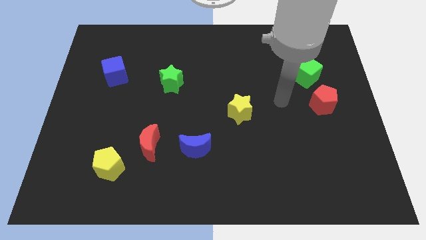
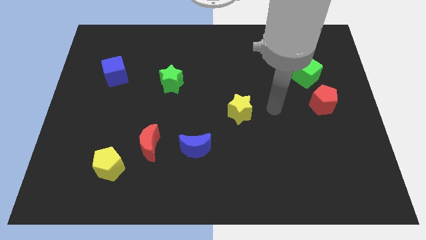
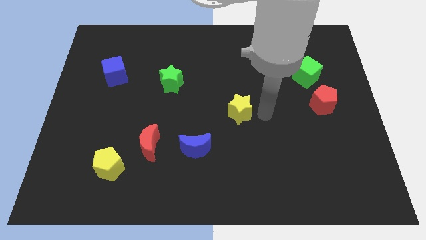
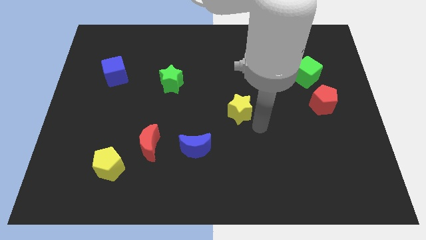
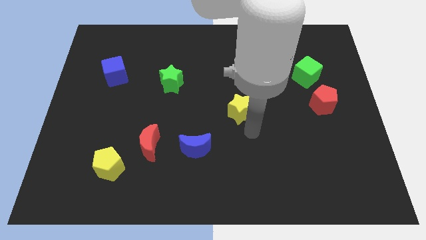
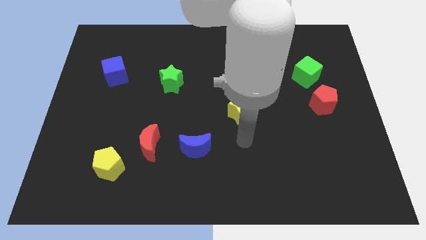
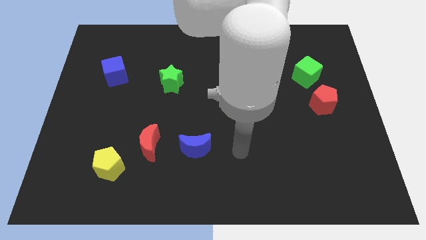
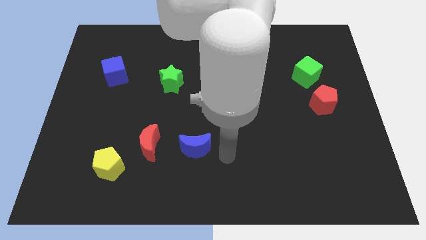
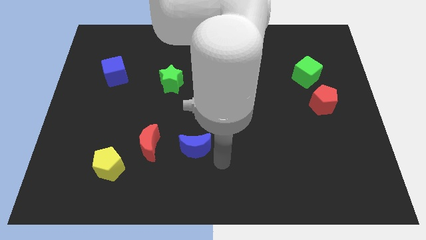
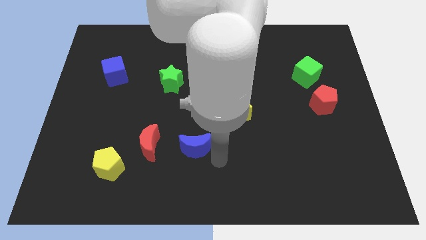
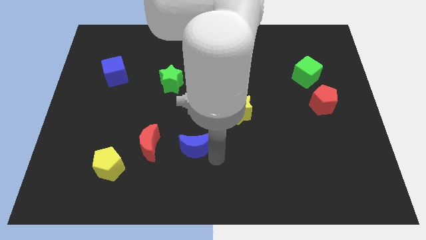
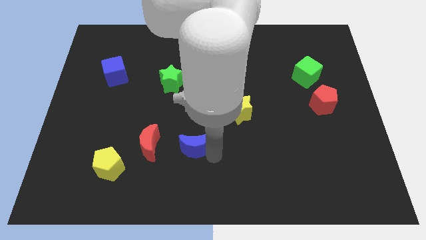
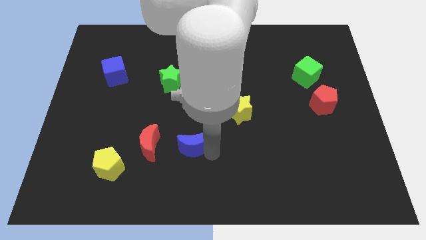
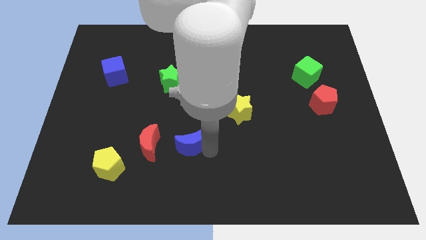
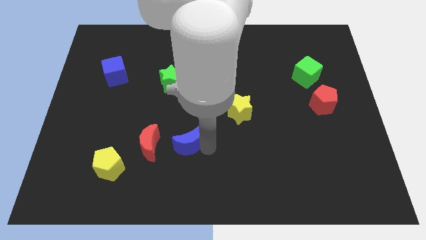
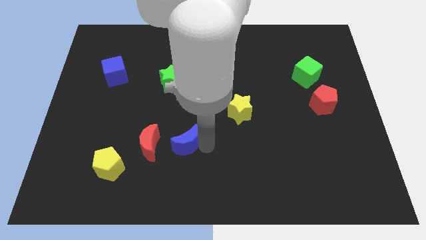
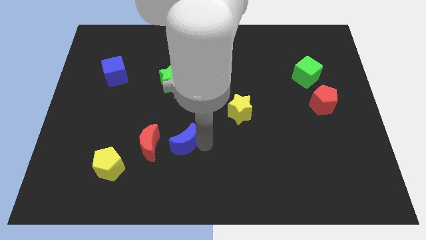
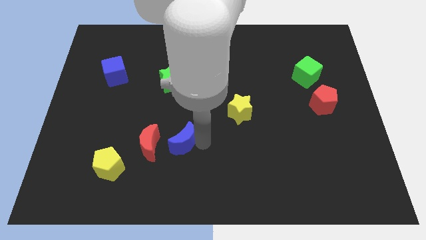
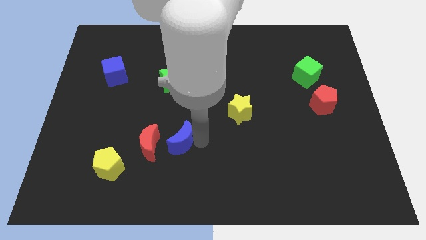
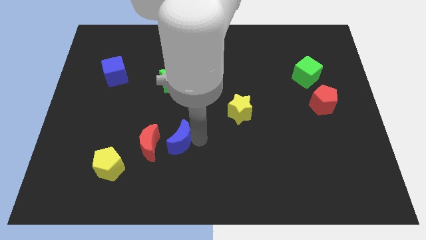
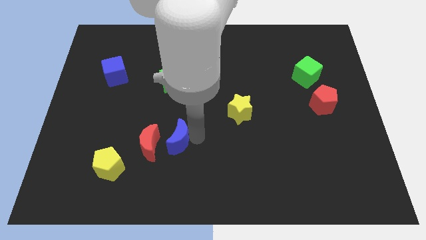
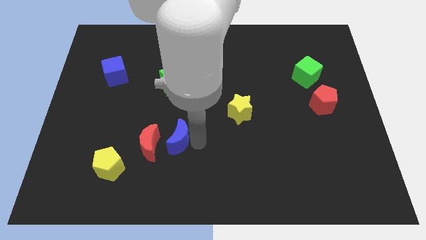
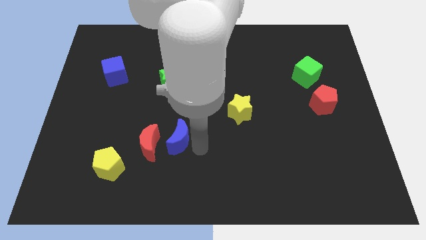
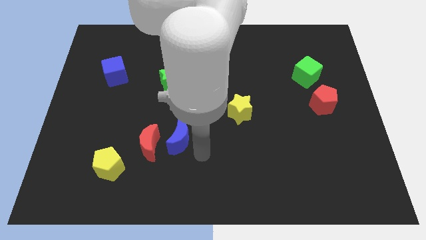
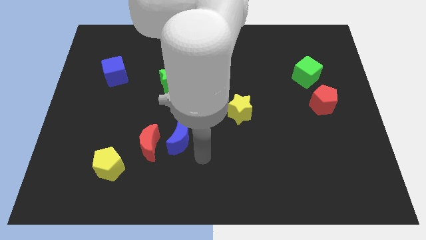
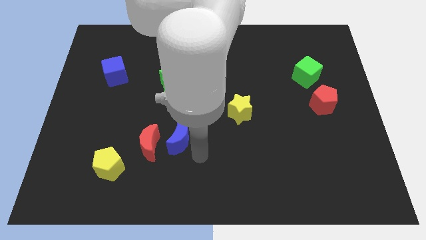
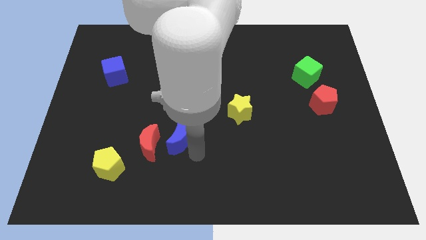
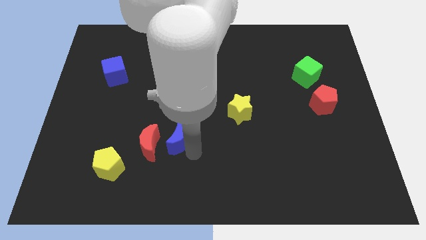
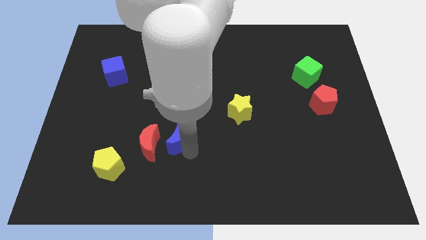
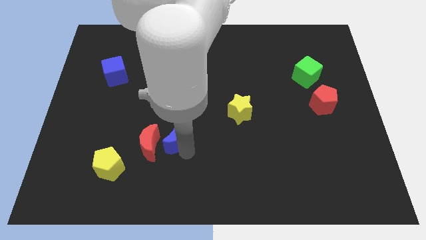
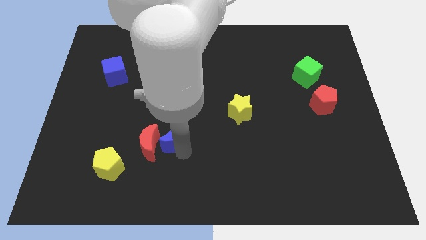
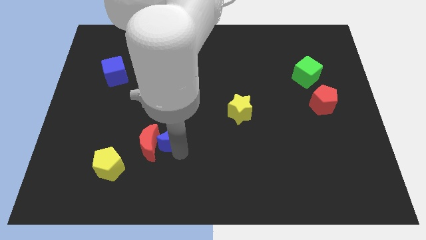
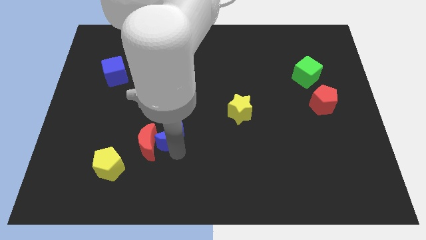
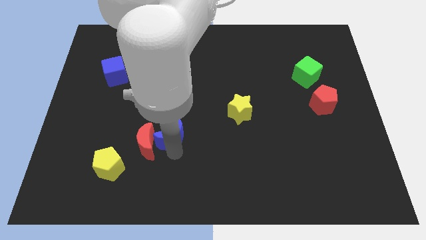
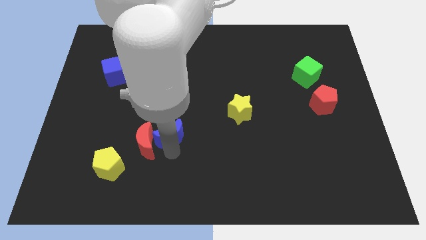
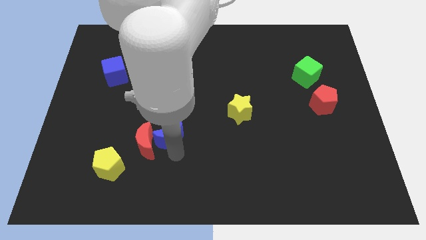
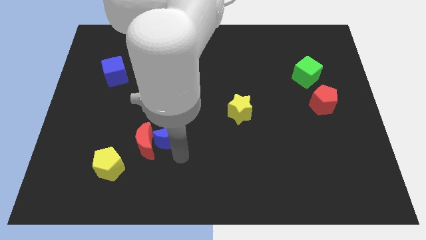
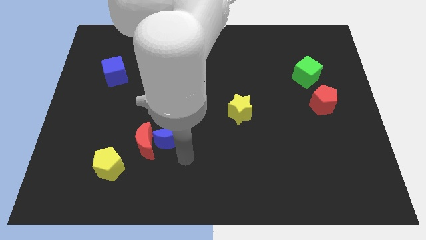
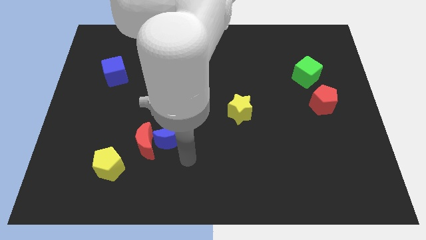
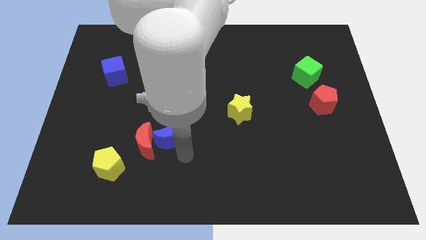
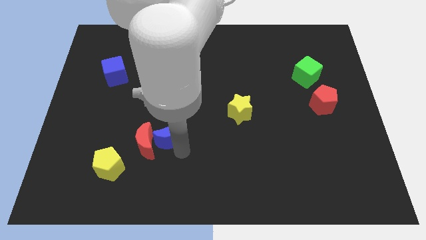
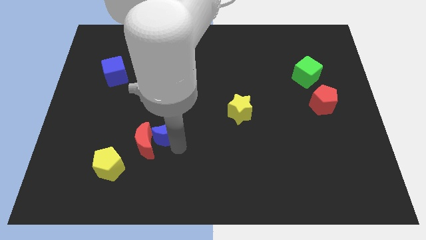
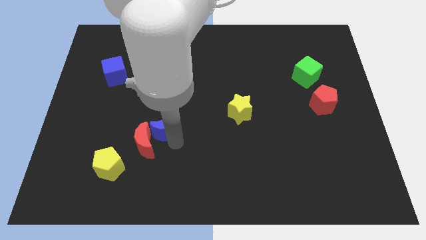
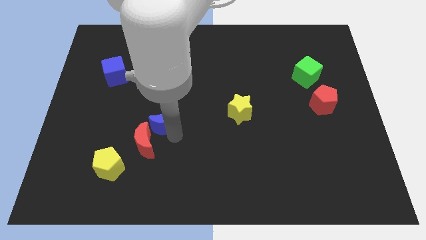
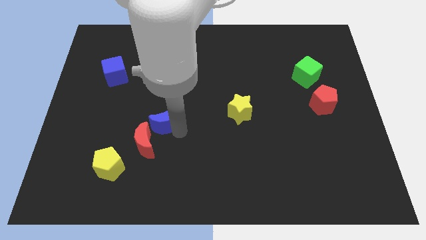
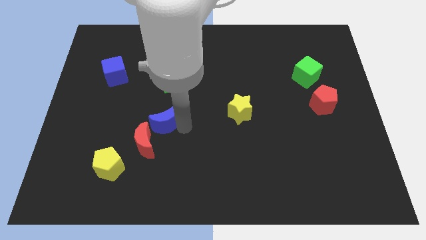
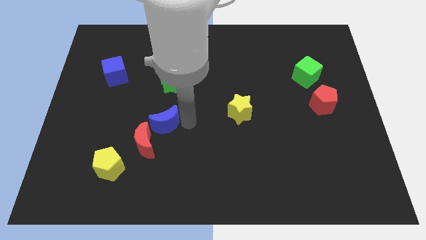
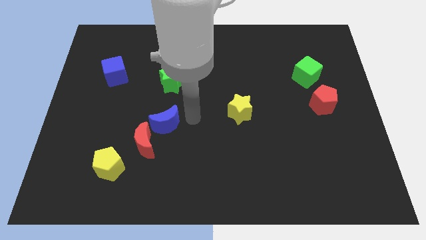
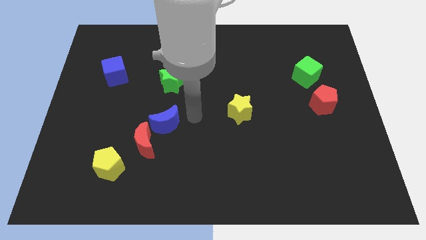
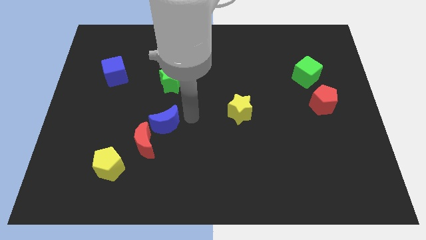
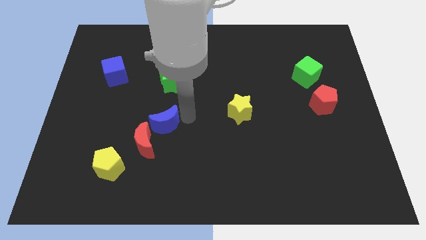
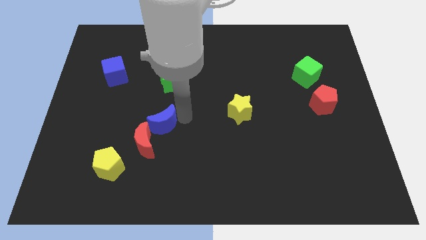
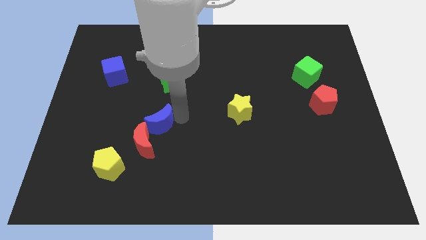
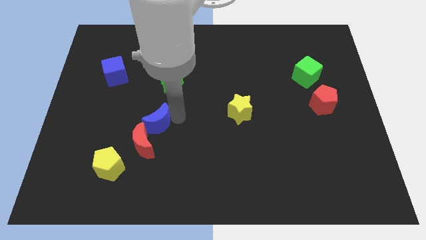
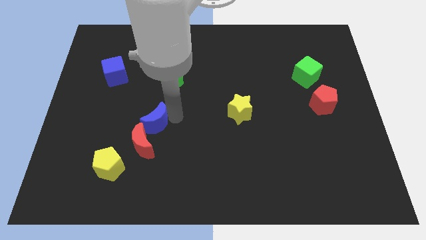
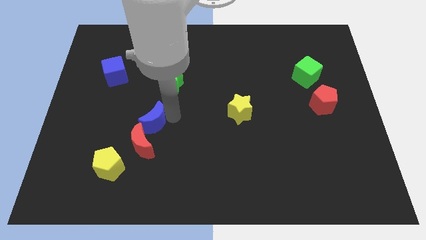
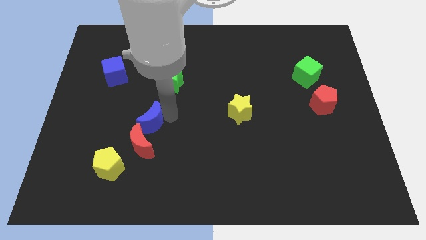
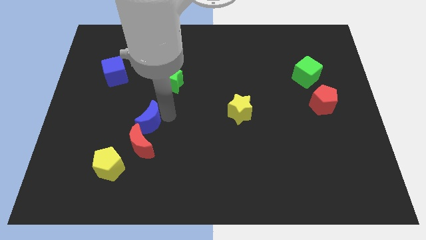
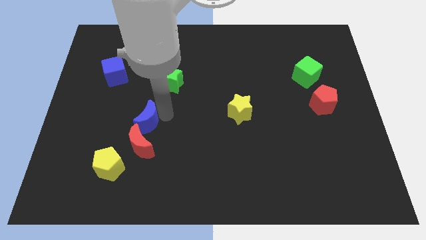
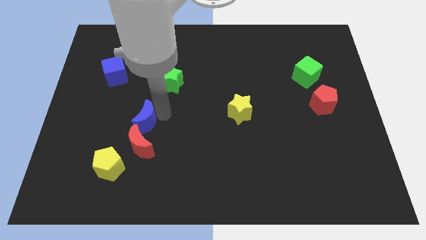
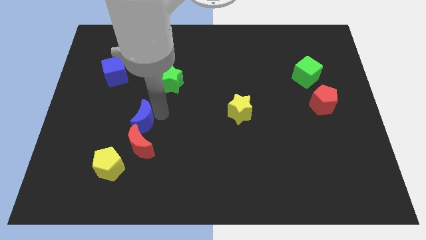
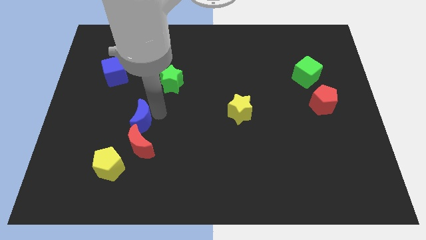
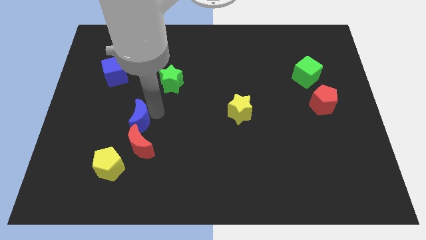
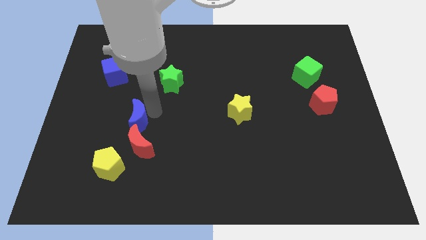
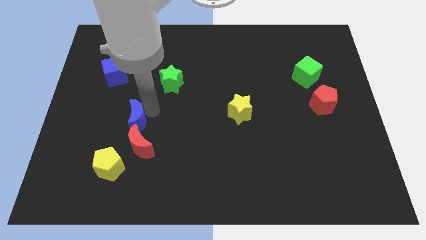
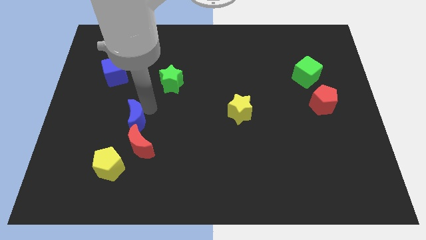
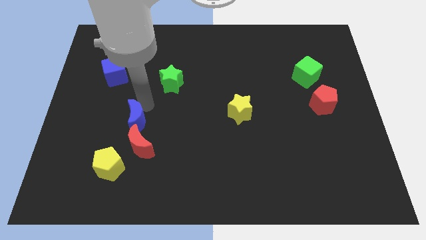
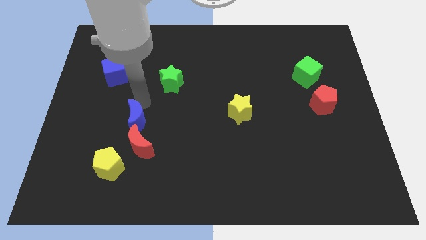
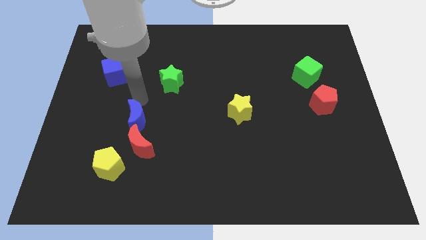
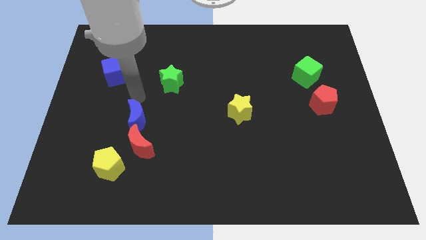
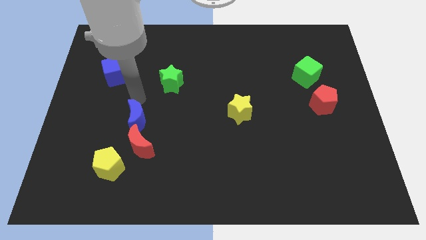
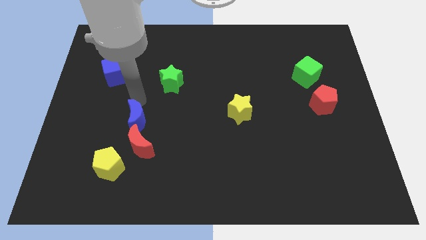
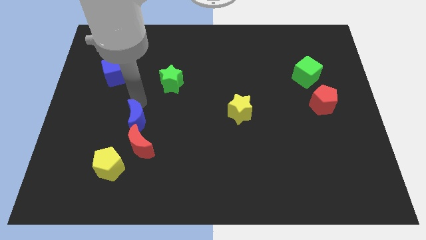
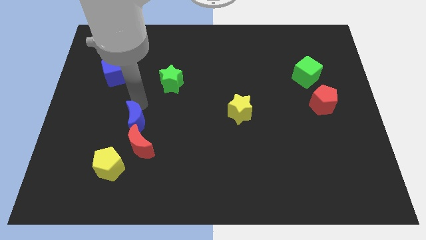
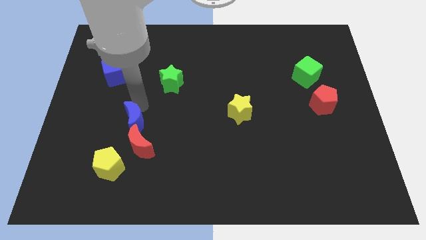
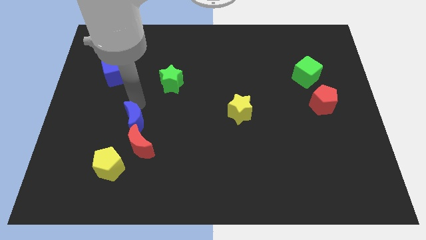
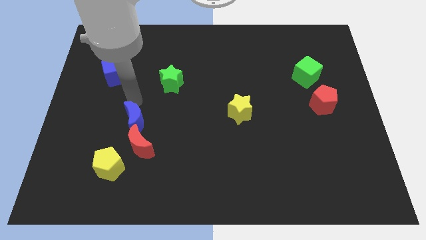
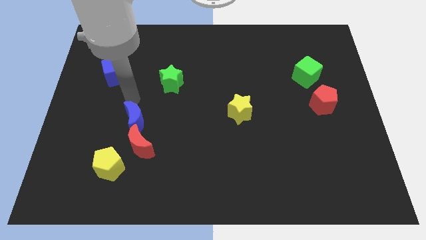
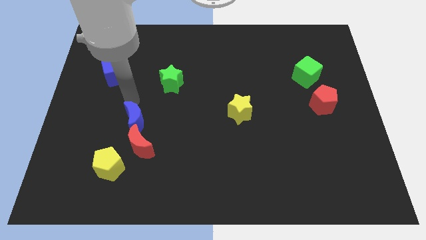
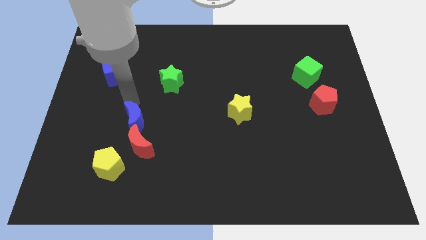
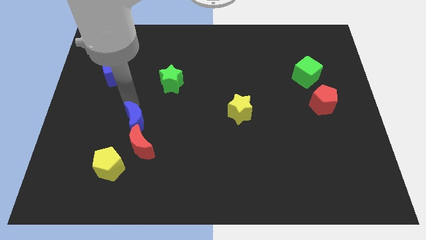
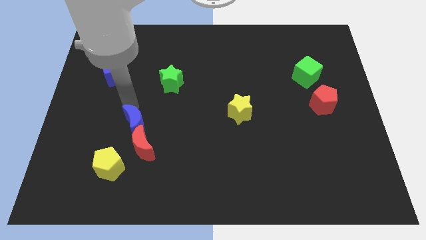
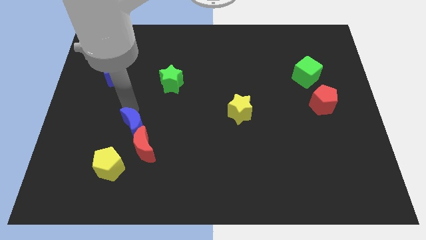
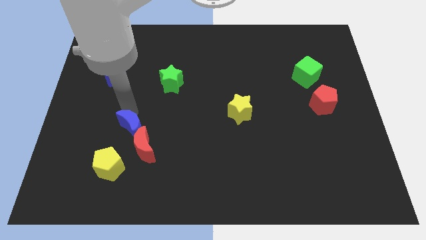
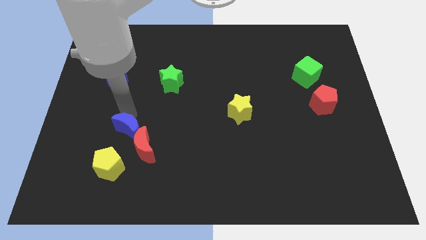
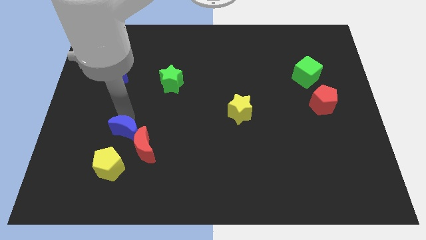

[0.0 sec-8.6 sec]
push the blue moon to the left side of the red moon
